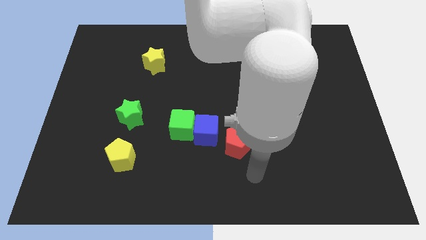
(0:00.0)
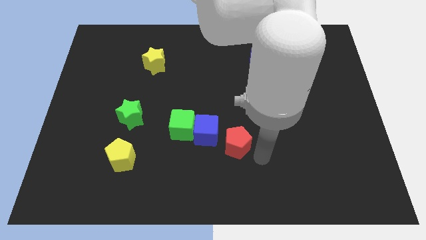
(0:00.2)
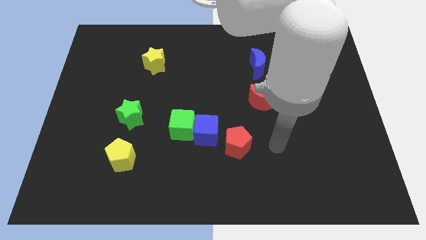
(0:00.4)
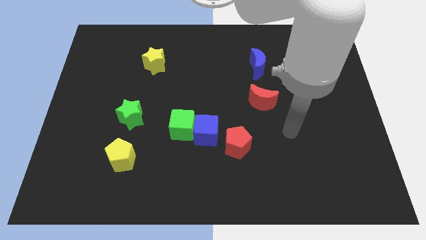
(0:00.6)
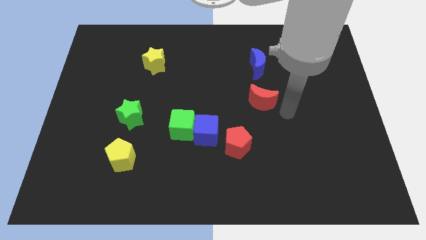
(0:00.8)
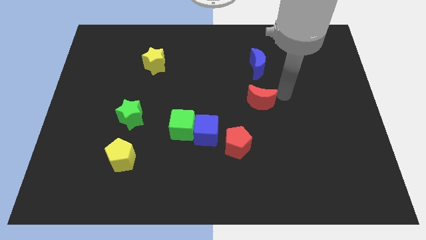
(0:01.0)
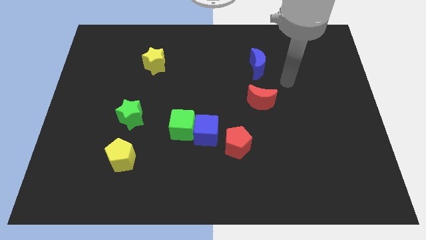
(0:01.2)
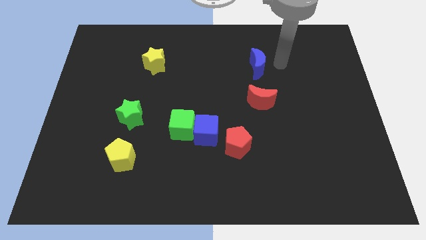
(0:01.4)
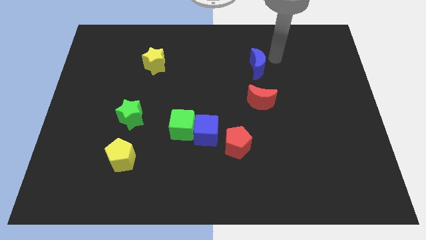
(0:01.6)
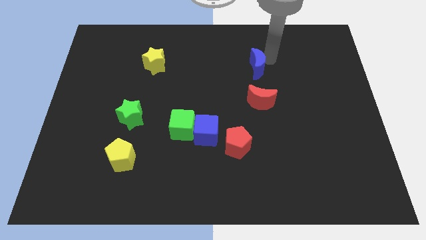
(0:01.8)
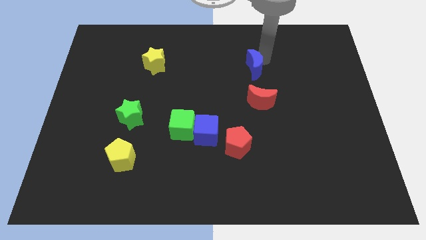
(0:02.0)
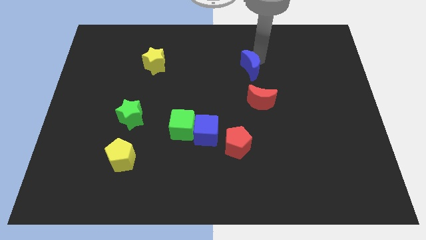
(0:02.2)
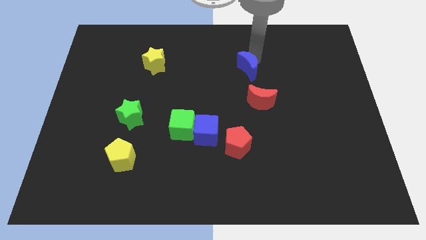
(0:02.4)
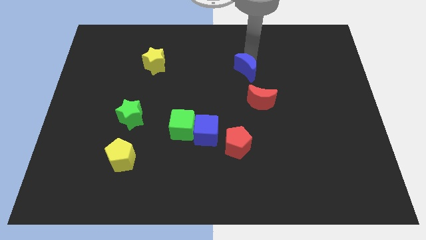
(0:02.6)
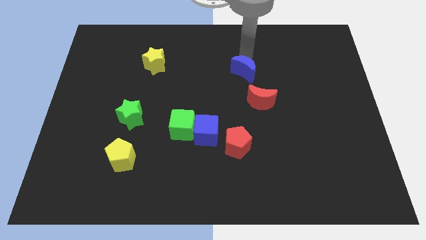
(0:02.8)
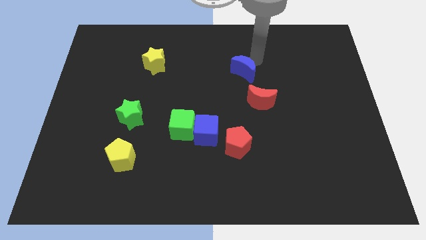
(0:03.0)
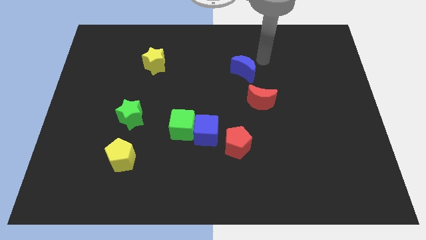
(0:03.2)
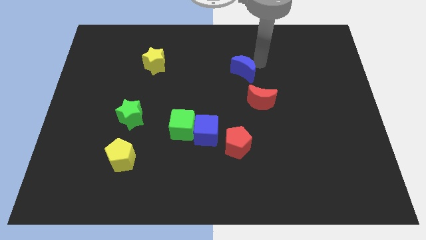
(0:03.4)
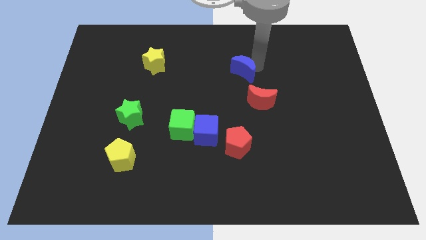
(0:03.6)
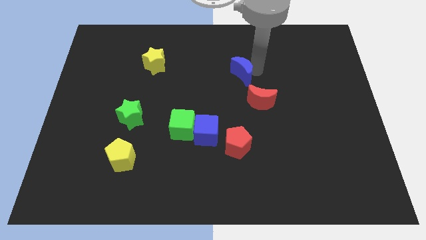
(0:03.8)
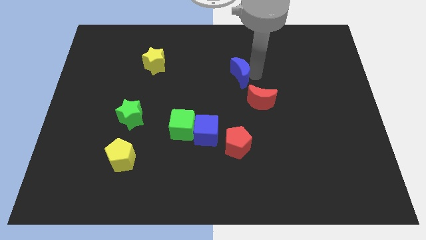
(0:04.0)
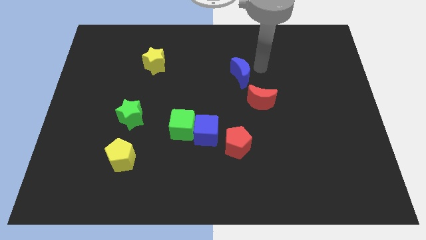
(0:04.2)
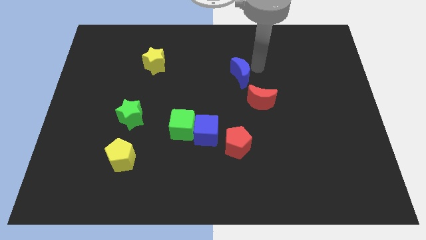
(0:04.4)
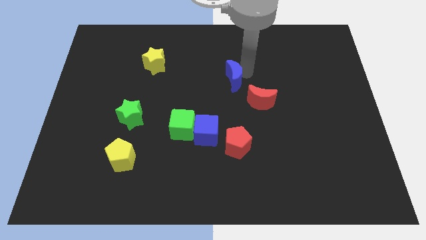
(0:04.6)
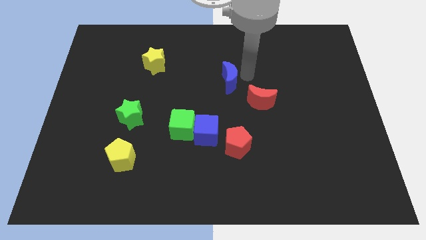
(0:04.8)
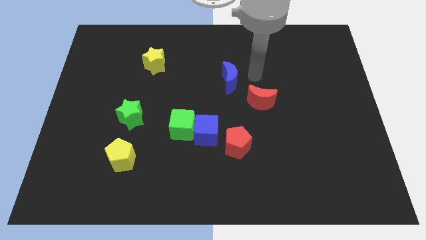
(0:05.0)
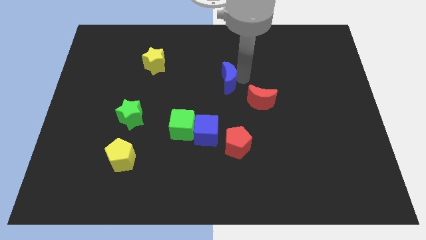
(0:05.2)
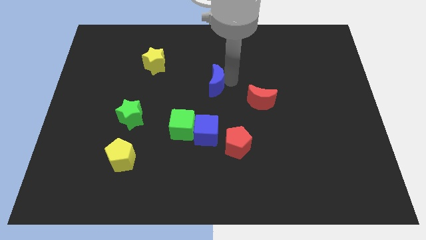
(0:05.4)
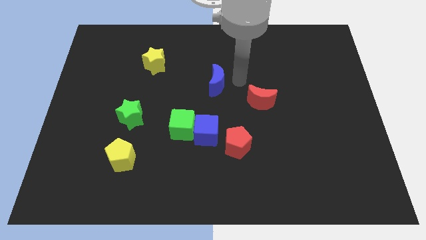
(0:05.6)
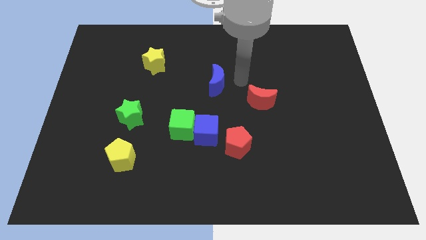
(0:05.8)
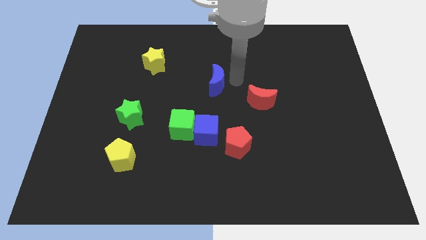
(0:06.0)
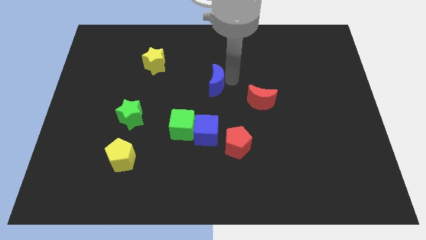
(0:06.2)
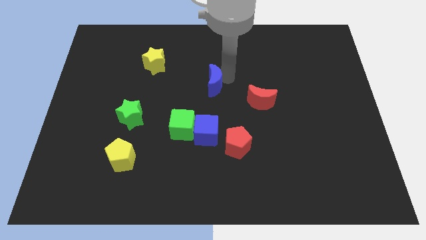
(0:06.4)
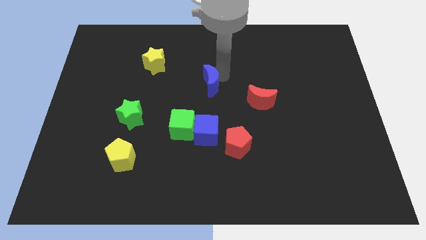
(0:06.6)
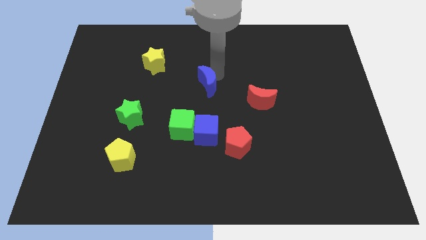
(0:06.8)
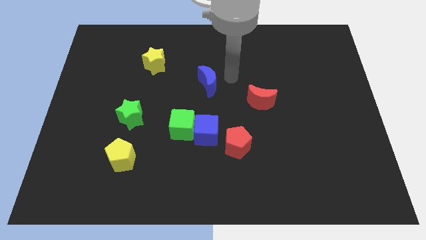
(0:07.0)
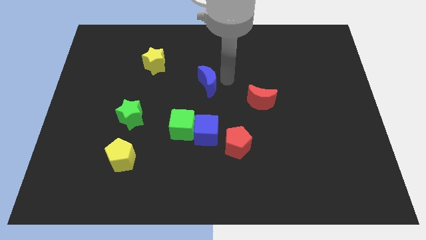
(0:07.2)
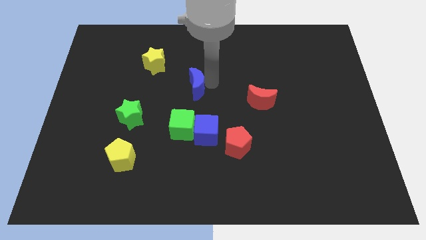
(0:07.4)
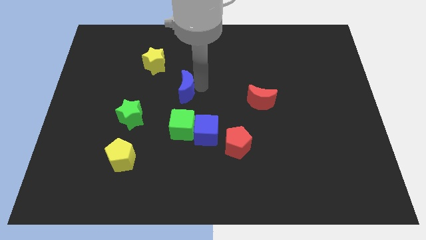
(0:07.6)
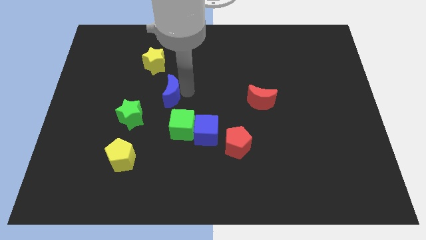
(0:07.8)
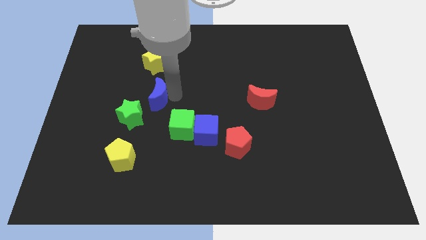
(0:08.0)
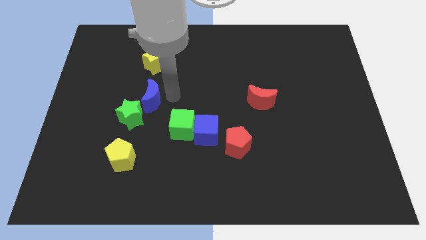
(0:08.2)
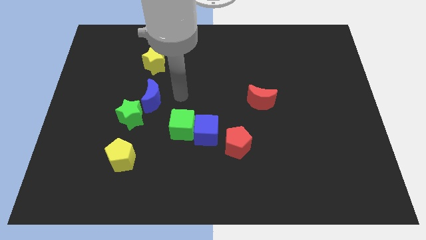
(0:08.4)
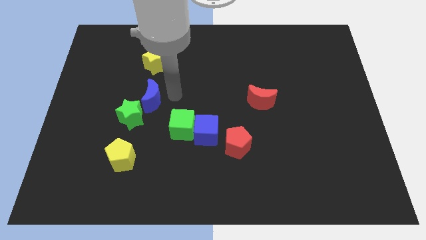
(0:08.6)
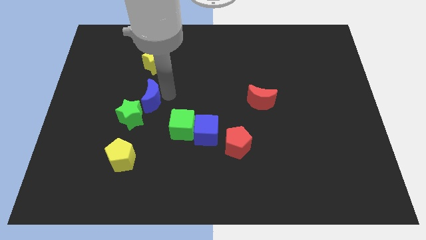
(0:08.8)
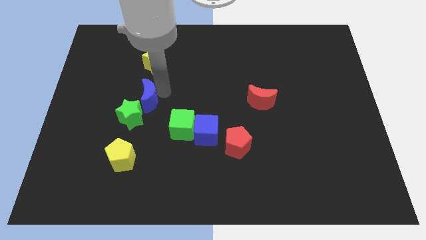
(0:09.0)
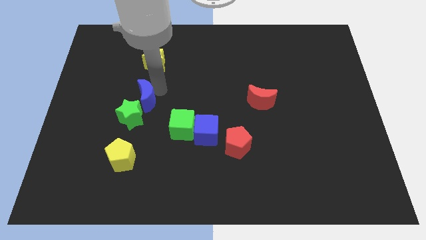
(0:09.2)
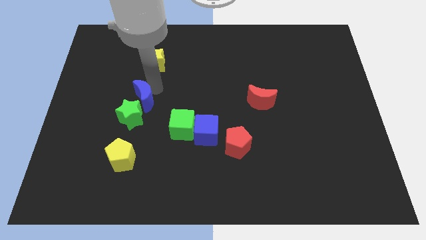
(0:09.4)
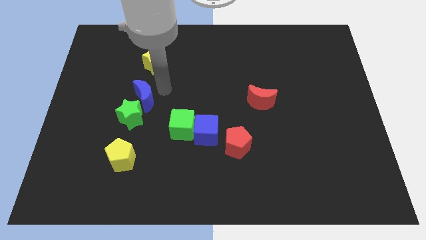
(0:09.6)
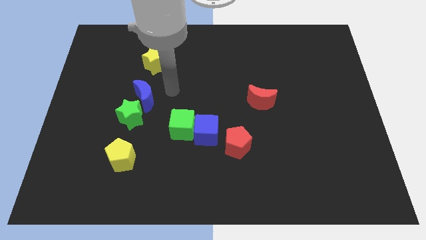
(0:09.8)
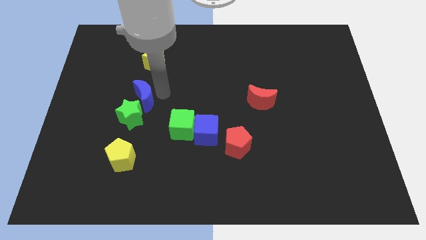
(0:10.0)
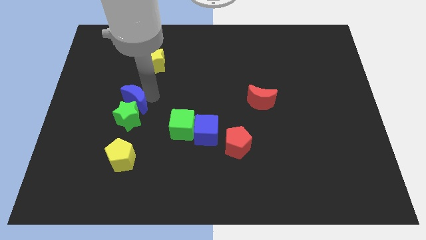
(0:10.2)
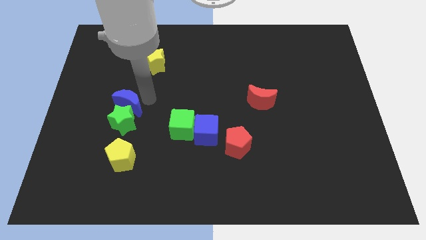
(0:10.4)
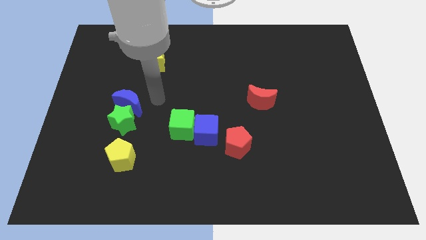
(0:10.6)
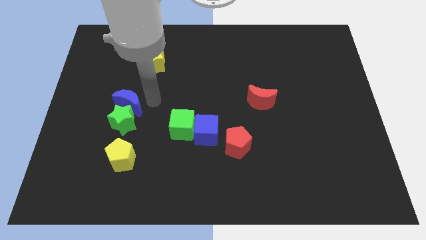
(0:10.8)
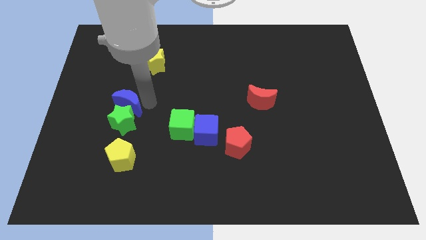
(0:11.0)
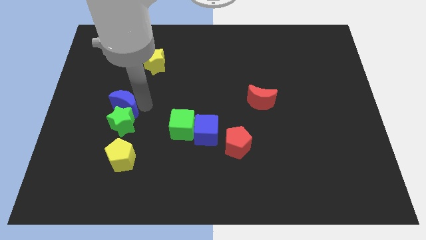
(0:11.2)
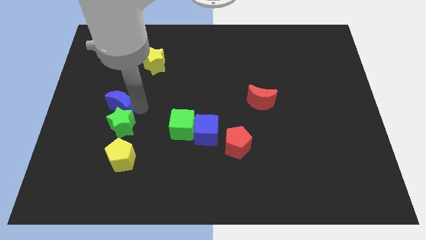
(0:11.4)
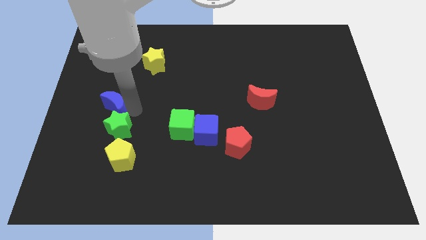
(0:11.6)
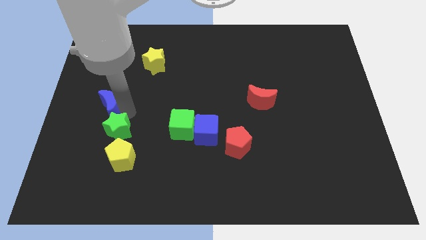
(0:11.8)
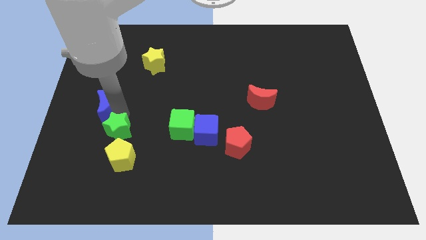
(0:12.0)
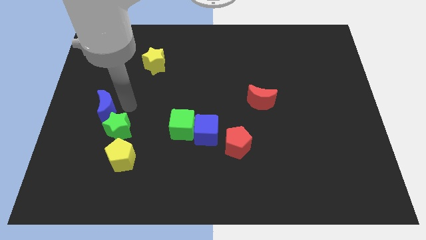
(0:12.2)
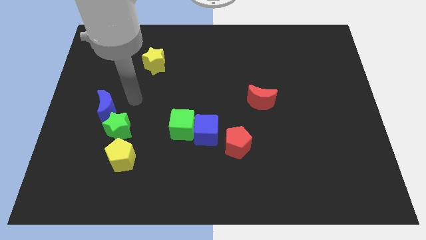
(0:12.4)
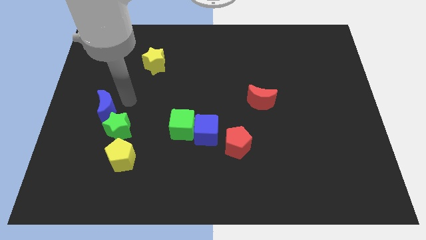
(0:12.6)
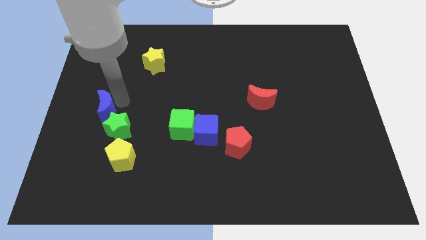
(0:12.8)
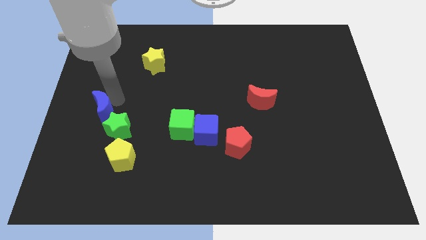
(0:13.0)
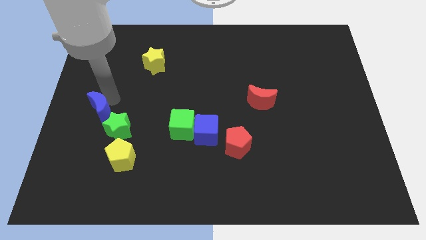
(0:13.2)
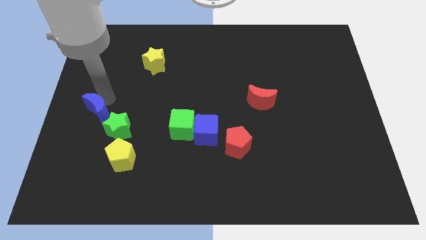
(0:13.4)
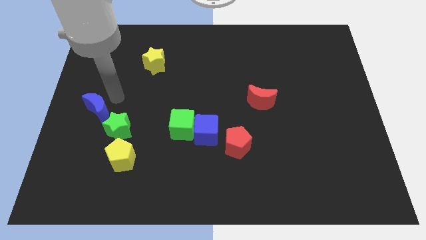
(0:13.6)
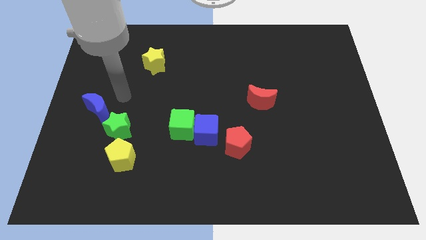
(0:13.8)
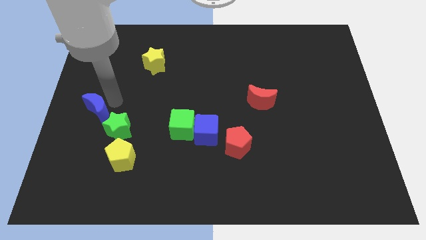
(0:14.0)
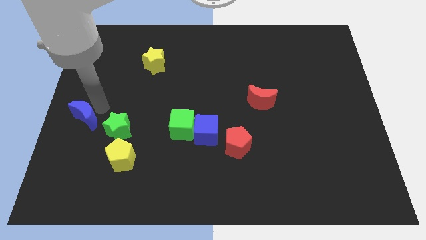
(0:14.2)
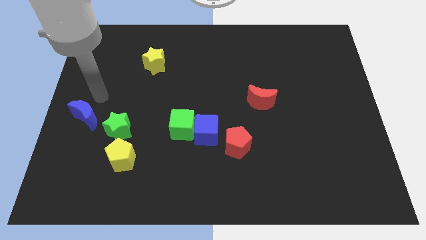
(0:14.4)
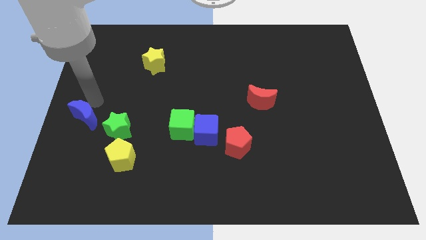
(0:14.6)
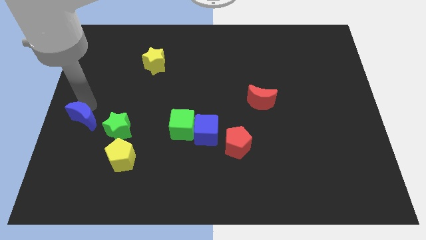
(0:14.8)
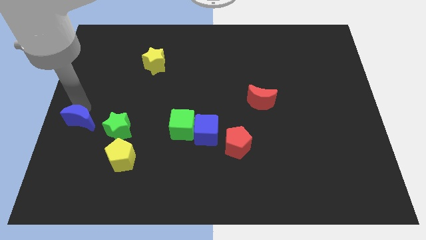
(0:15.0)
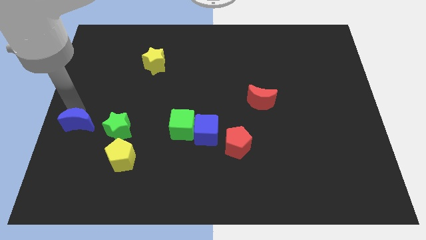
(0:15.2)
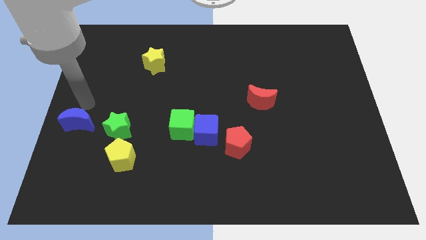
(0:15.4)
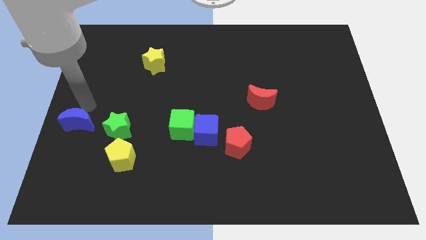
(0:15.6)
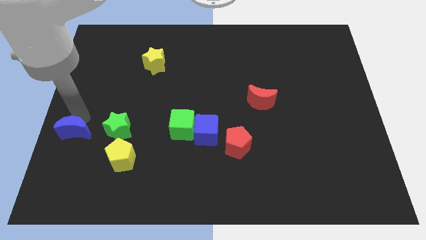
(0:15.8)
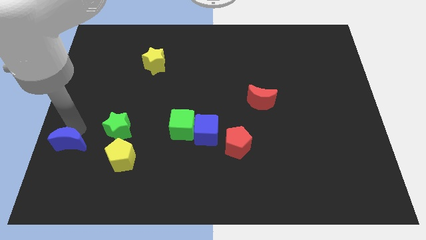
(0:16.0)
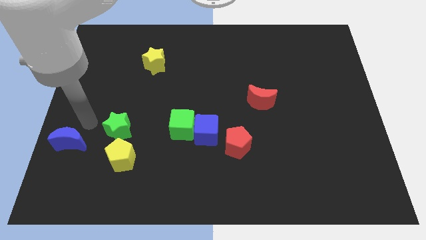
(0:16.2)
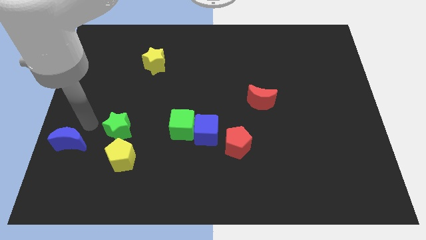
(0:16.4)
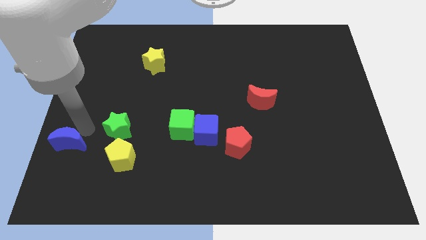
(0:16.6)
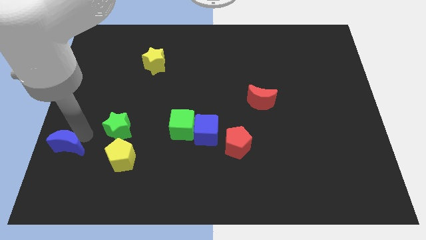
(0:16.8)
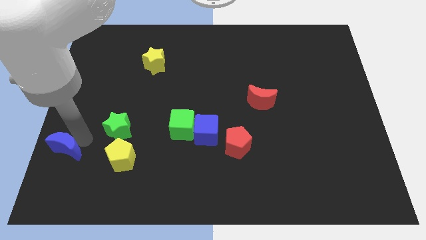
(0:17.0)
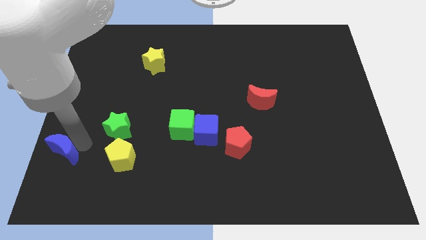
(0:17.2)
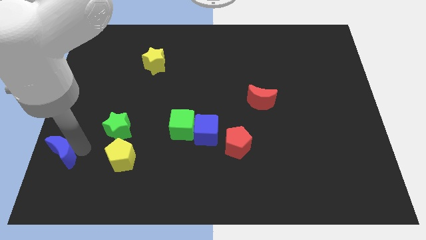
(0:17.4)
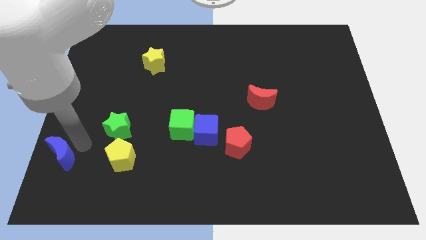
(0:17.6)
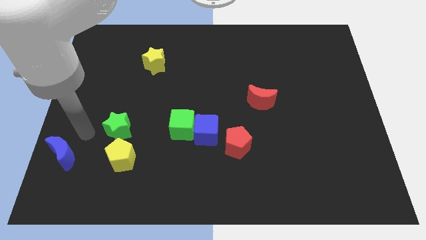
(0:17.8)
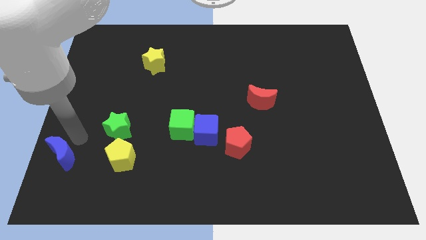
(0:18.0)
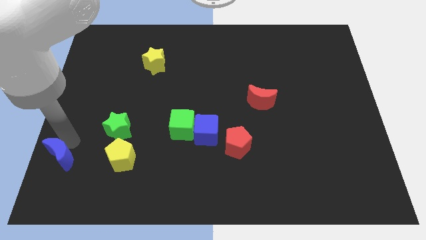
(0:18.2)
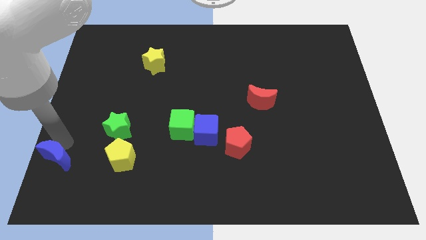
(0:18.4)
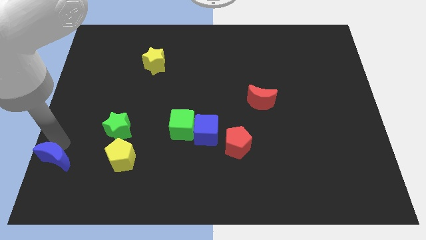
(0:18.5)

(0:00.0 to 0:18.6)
move the blue moon to the bottom left corner
